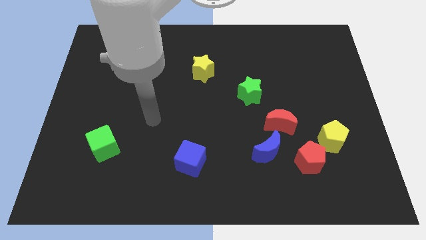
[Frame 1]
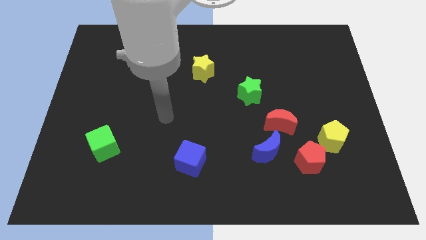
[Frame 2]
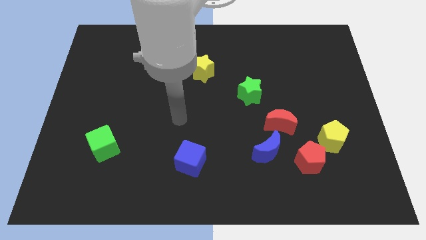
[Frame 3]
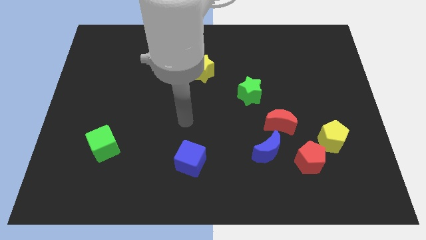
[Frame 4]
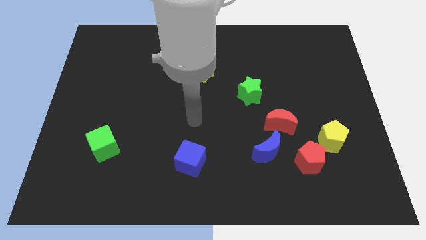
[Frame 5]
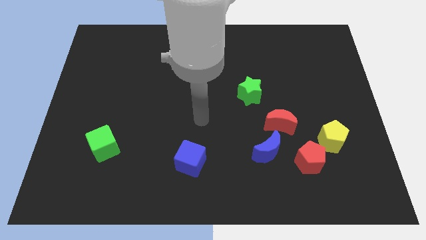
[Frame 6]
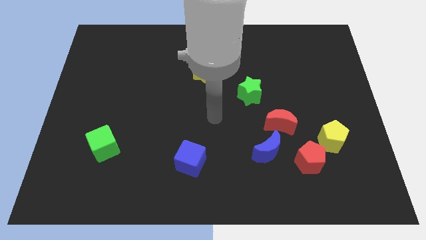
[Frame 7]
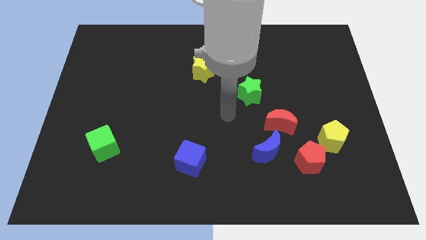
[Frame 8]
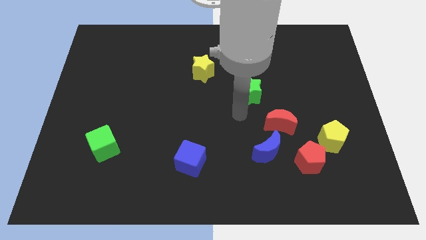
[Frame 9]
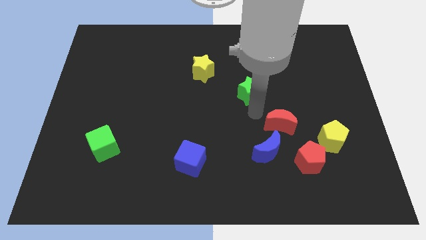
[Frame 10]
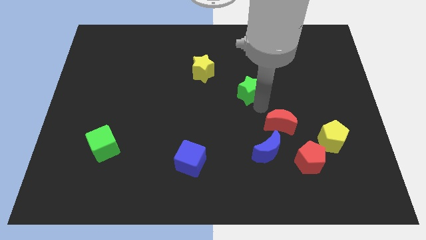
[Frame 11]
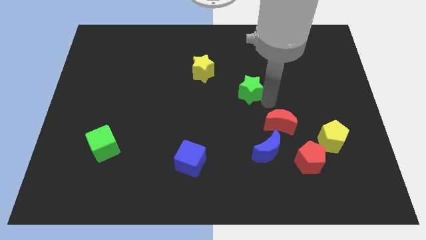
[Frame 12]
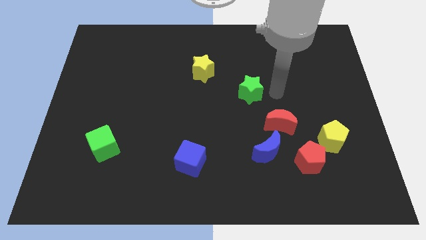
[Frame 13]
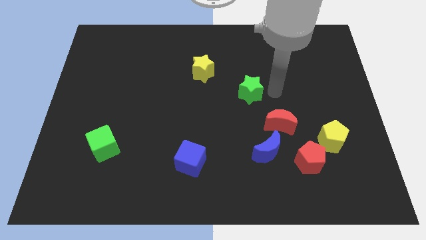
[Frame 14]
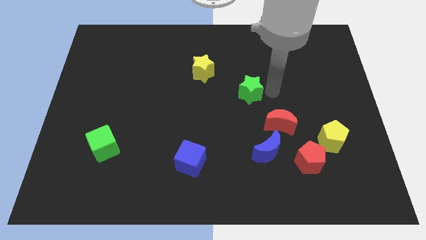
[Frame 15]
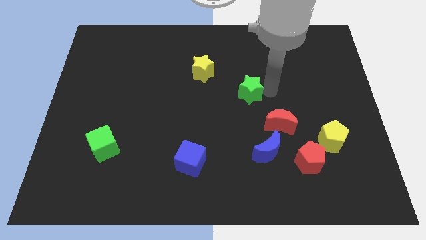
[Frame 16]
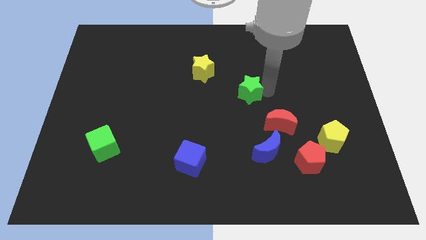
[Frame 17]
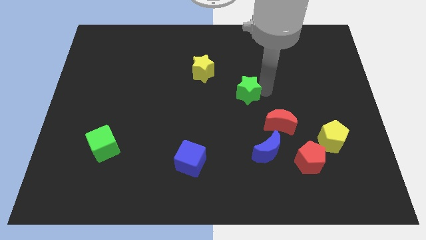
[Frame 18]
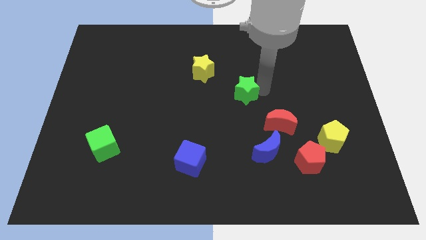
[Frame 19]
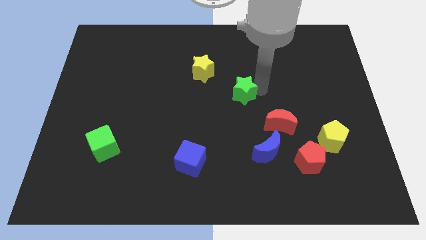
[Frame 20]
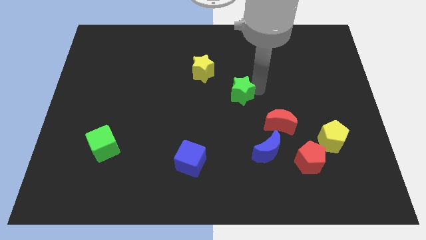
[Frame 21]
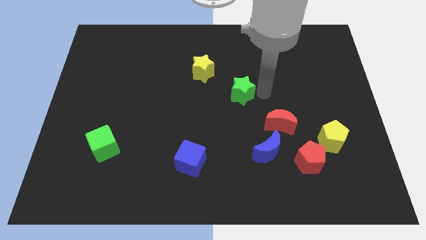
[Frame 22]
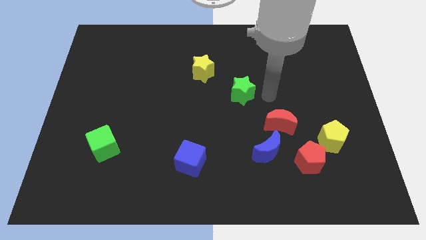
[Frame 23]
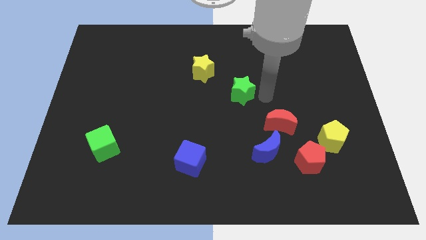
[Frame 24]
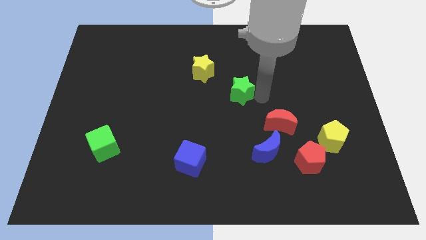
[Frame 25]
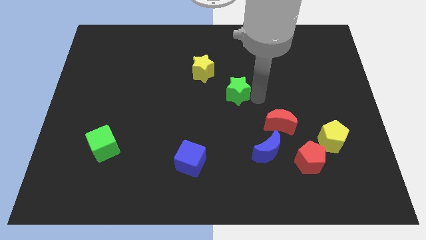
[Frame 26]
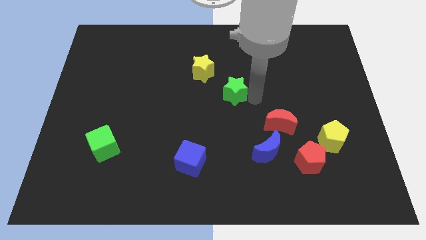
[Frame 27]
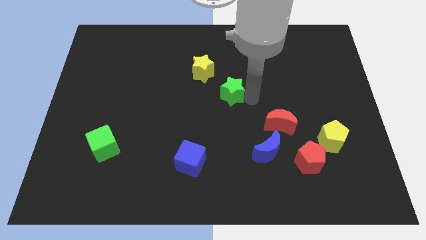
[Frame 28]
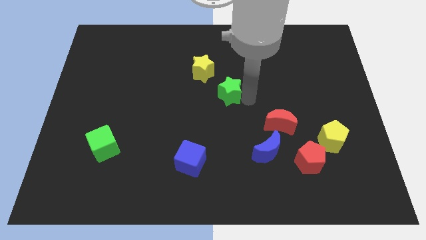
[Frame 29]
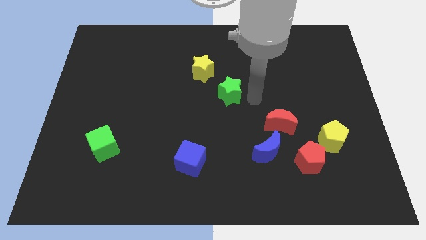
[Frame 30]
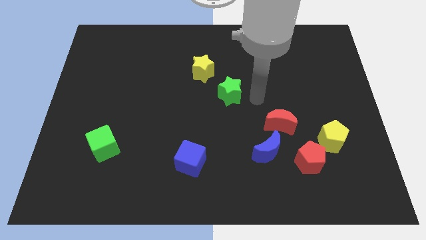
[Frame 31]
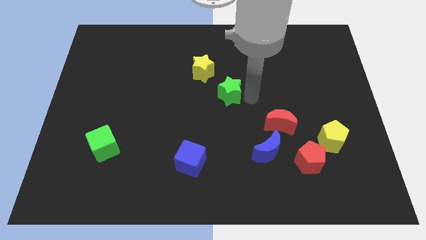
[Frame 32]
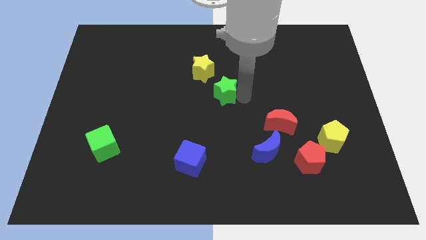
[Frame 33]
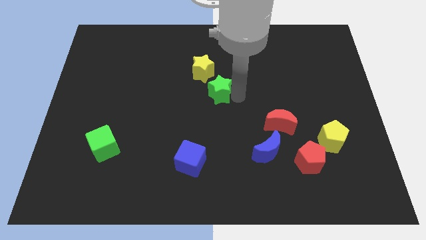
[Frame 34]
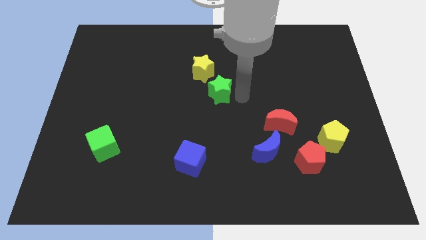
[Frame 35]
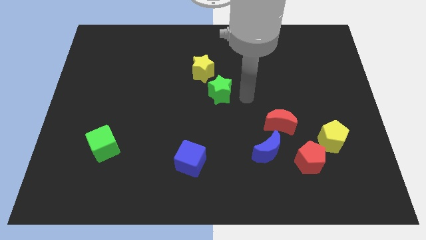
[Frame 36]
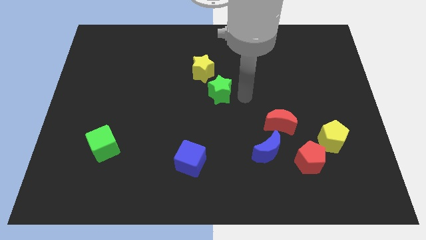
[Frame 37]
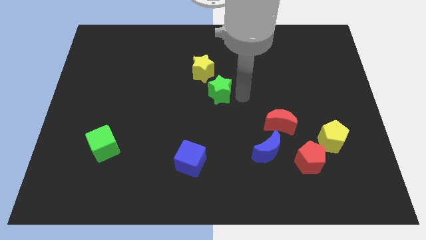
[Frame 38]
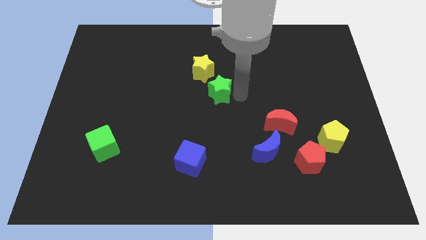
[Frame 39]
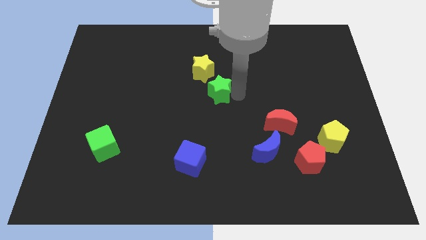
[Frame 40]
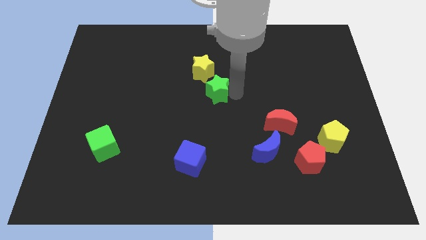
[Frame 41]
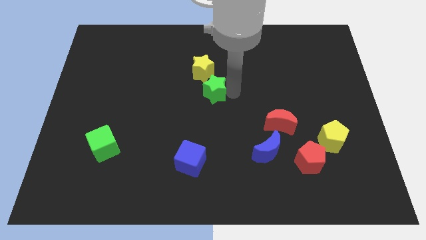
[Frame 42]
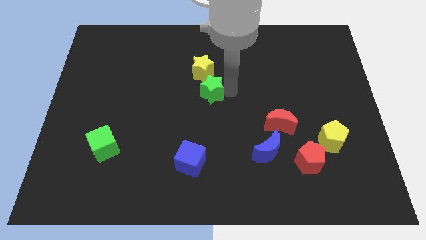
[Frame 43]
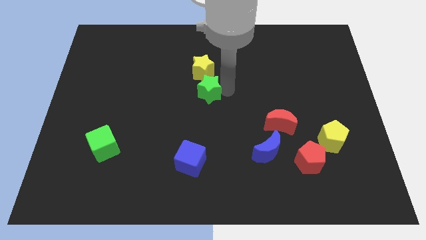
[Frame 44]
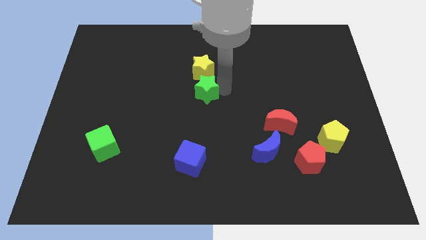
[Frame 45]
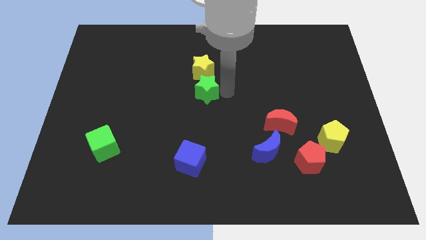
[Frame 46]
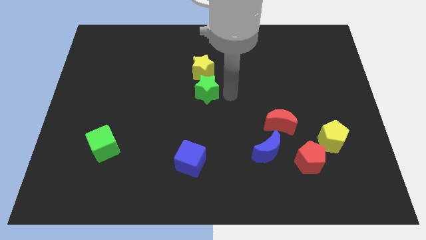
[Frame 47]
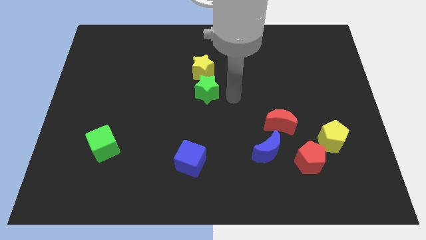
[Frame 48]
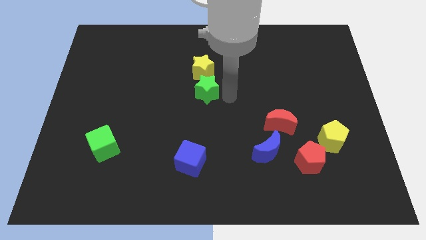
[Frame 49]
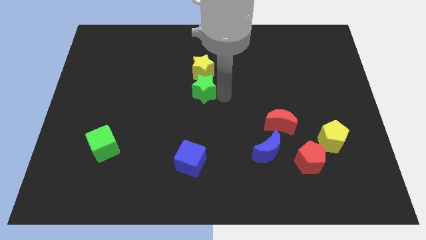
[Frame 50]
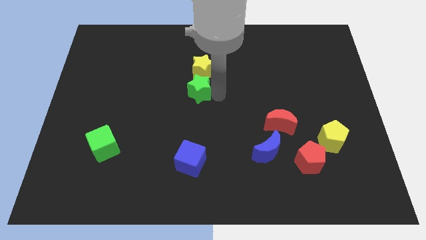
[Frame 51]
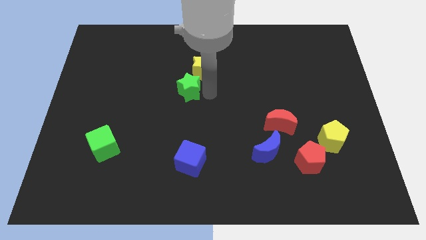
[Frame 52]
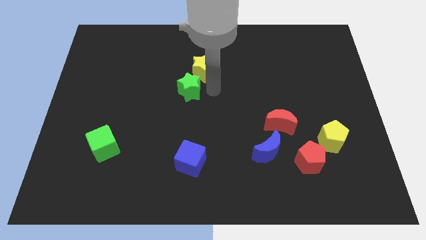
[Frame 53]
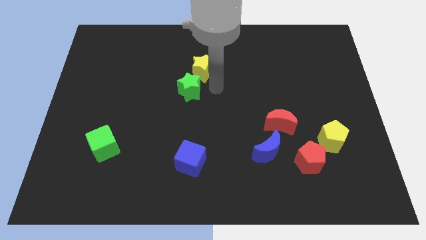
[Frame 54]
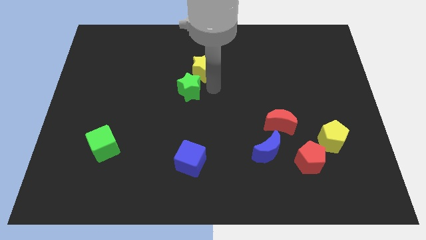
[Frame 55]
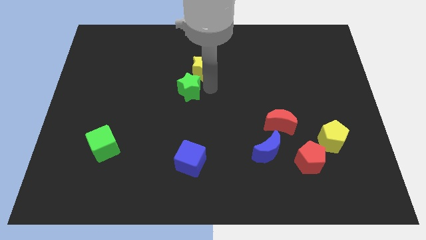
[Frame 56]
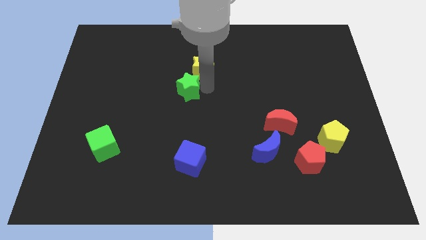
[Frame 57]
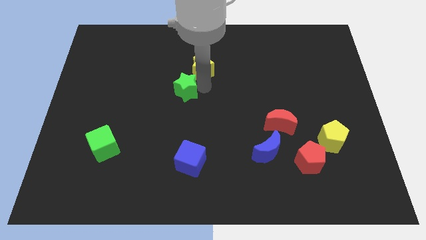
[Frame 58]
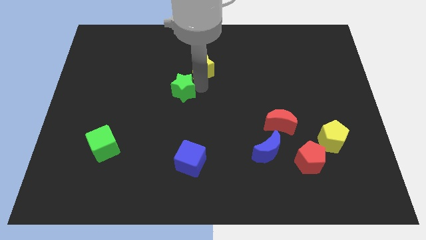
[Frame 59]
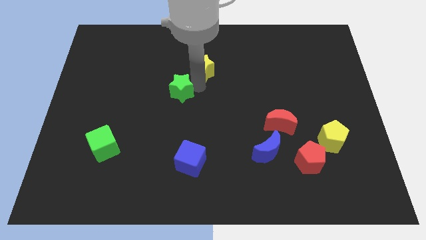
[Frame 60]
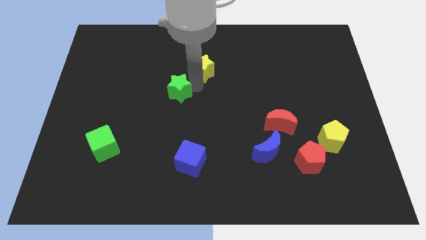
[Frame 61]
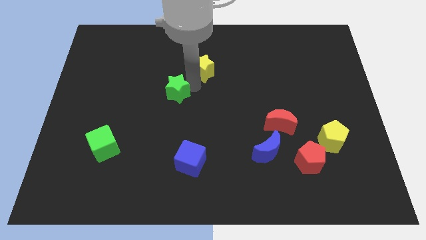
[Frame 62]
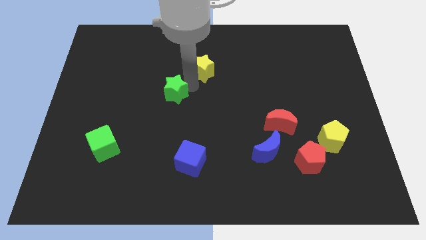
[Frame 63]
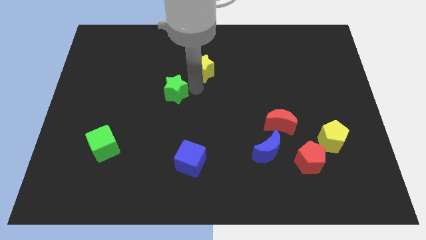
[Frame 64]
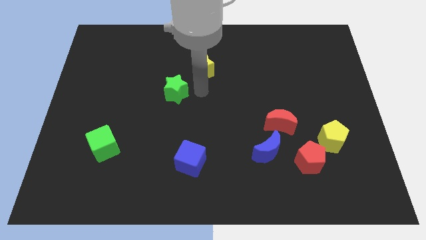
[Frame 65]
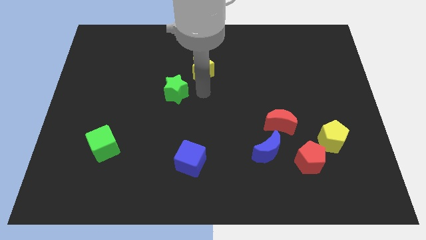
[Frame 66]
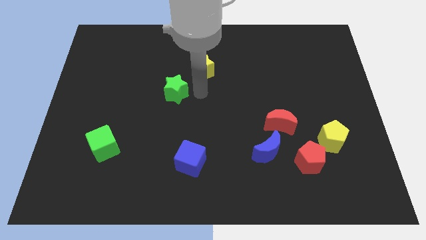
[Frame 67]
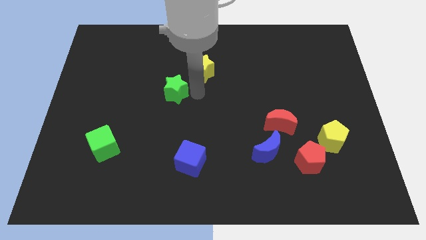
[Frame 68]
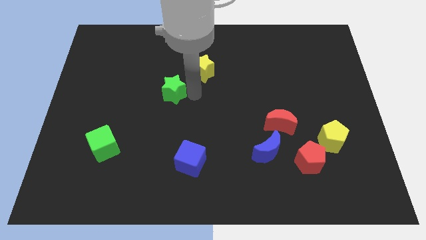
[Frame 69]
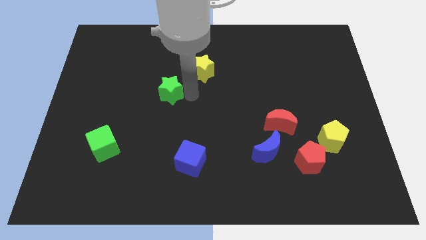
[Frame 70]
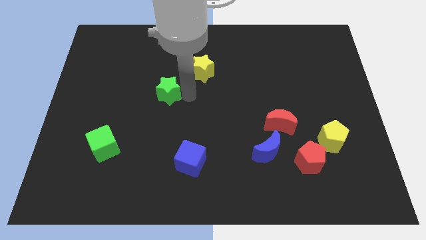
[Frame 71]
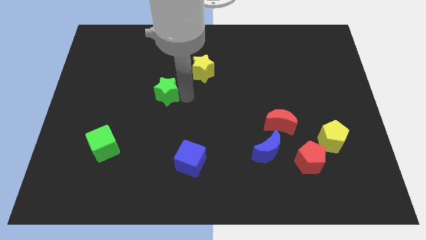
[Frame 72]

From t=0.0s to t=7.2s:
slide the green star to the left

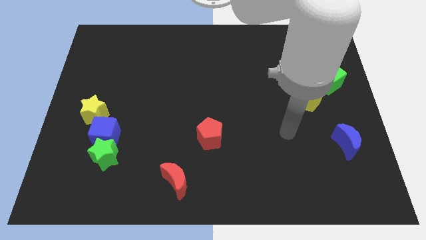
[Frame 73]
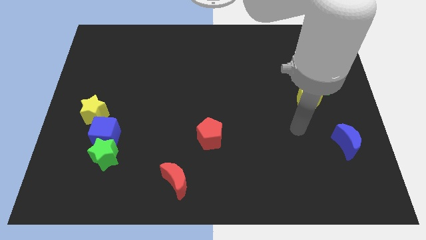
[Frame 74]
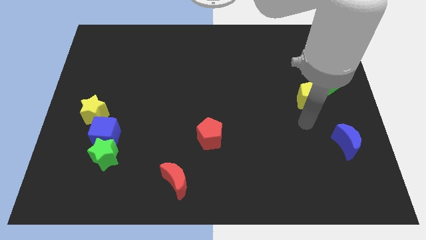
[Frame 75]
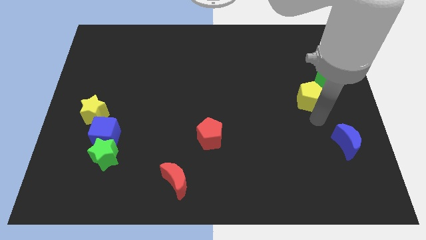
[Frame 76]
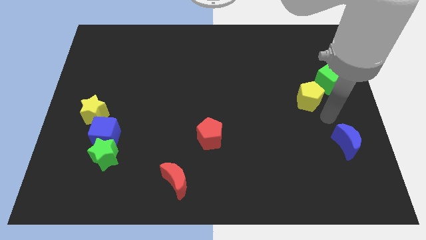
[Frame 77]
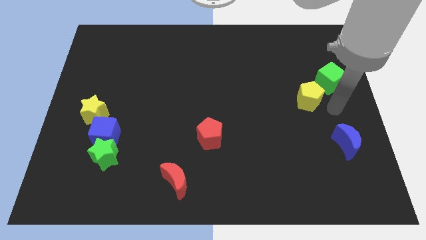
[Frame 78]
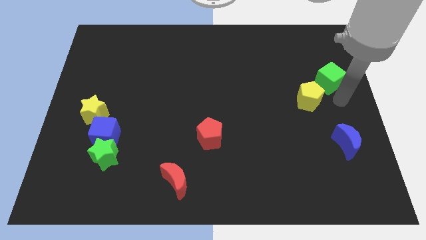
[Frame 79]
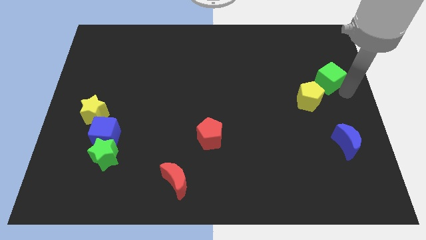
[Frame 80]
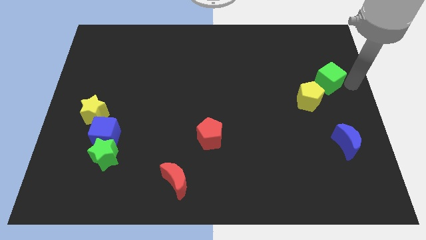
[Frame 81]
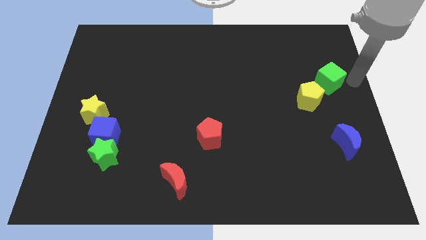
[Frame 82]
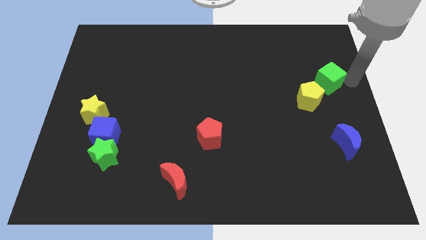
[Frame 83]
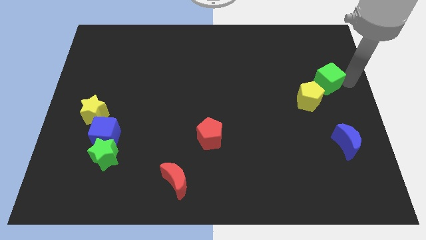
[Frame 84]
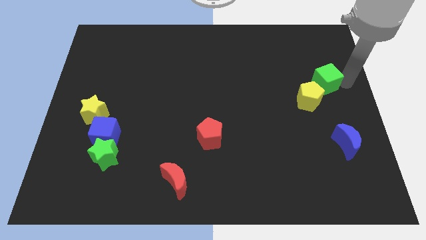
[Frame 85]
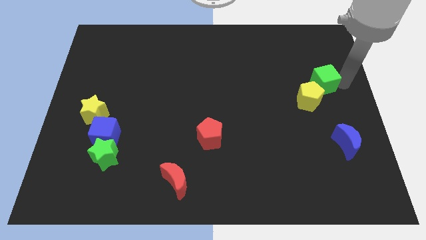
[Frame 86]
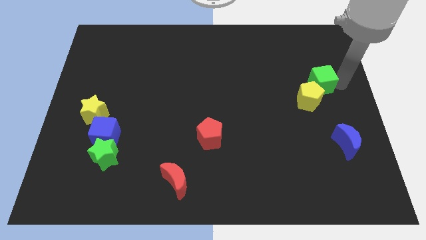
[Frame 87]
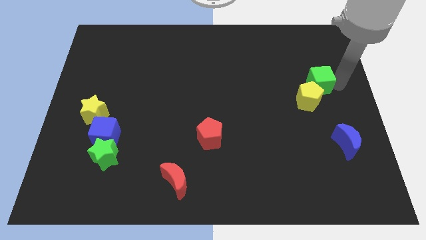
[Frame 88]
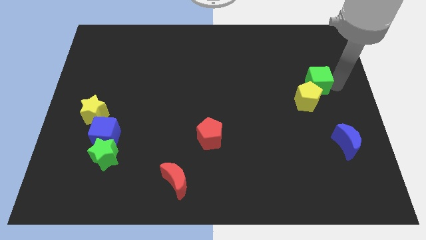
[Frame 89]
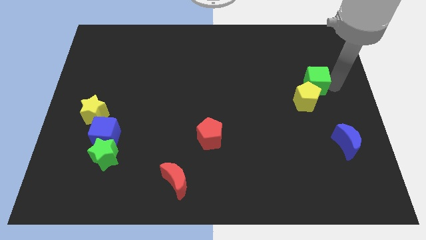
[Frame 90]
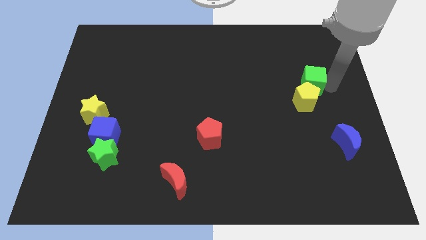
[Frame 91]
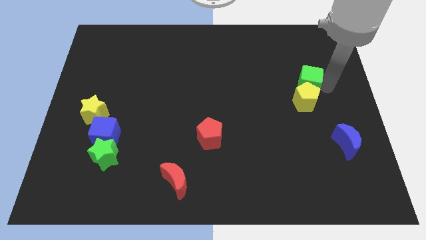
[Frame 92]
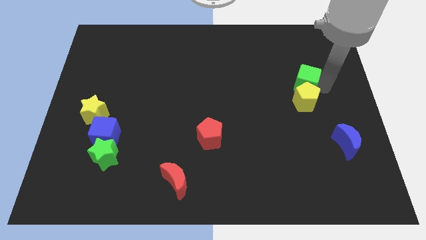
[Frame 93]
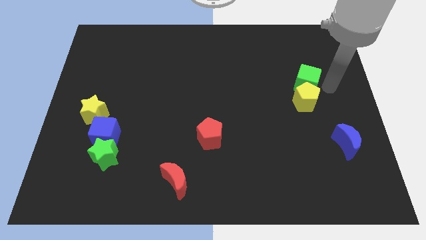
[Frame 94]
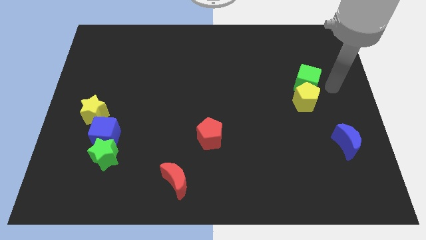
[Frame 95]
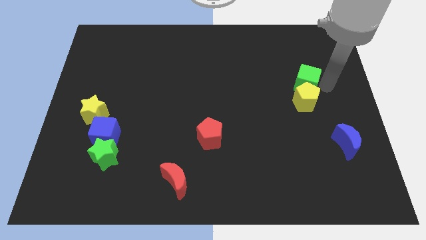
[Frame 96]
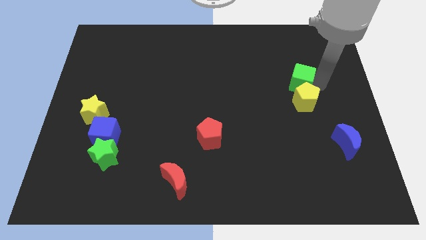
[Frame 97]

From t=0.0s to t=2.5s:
push the green cube left a bit
